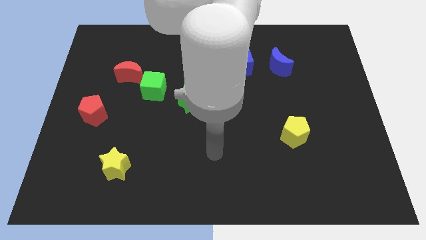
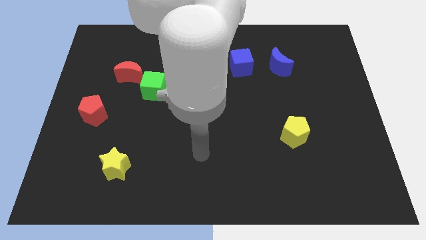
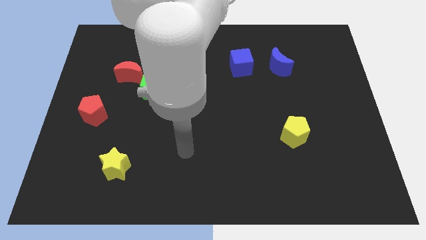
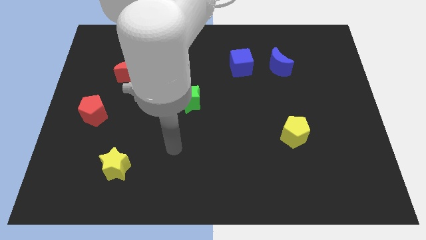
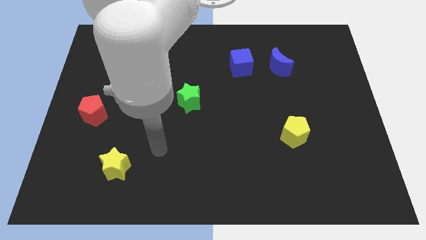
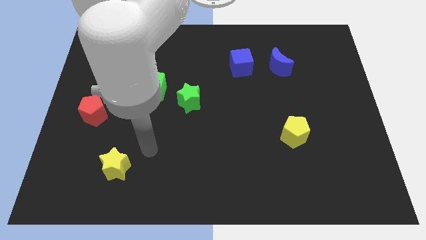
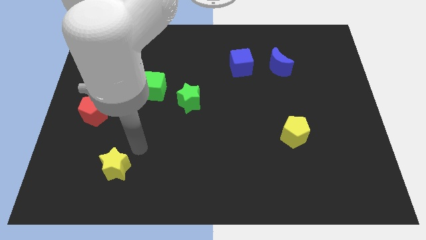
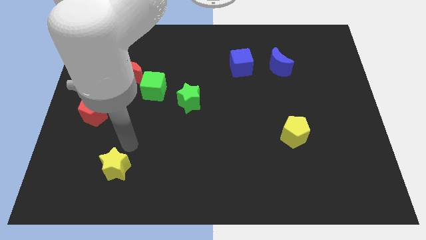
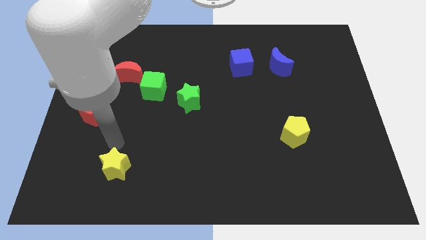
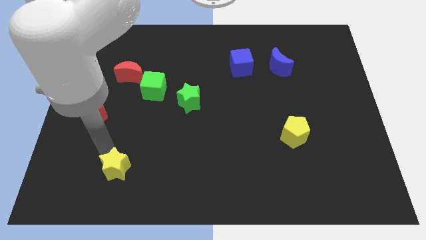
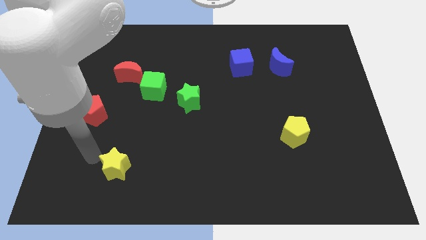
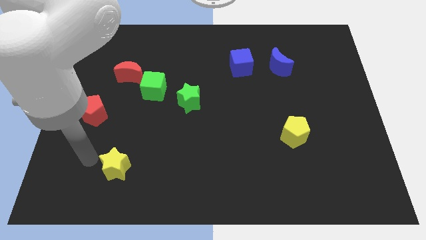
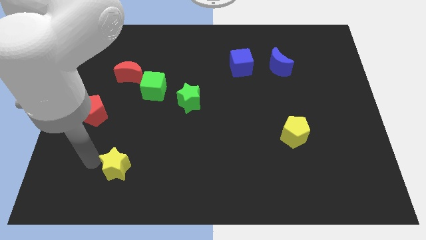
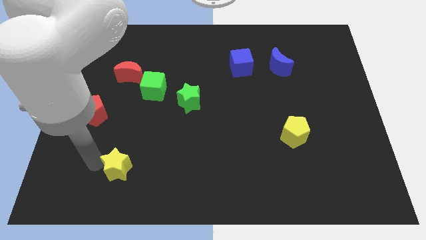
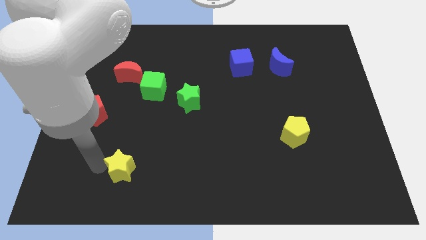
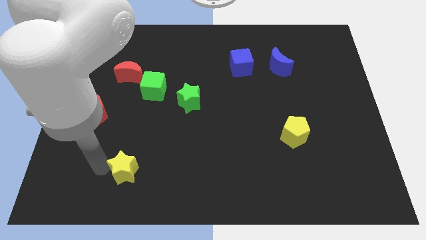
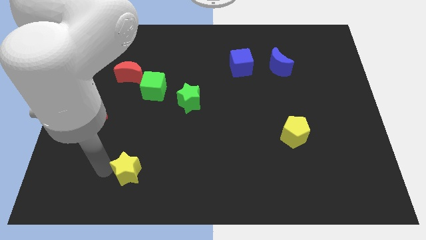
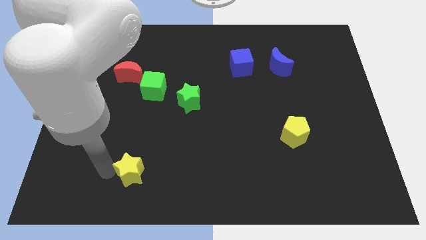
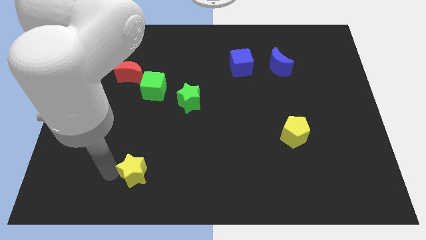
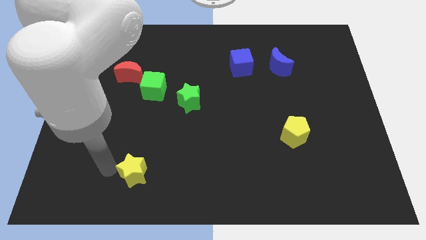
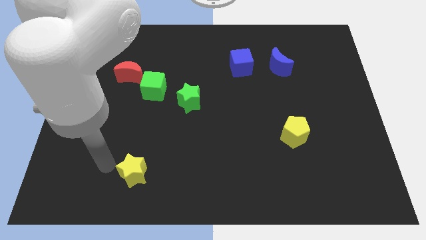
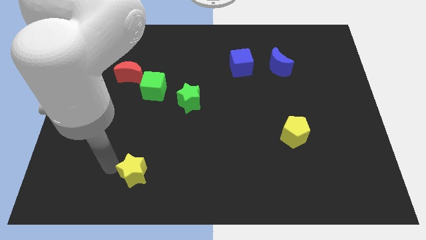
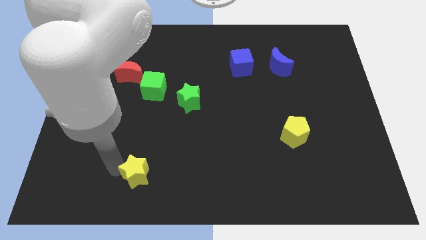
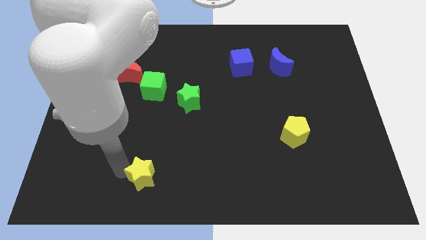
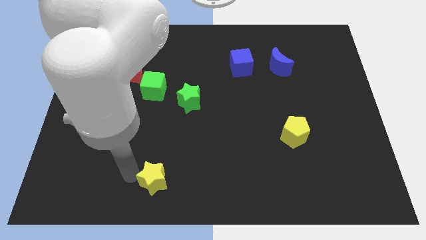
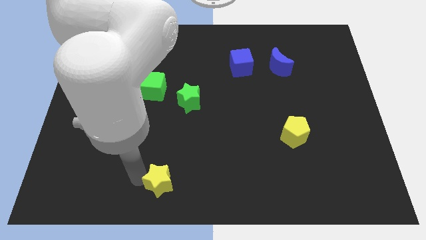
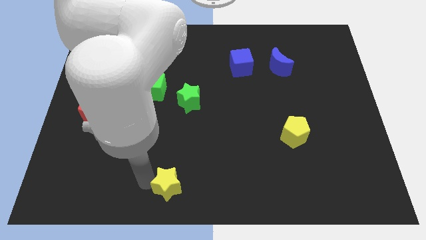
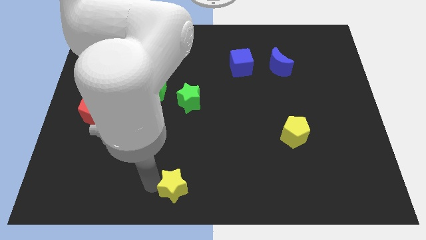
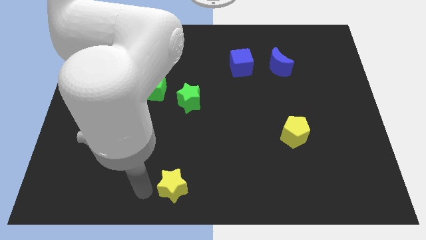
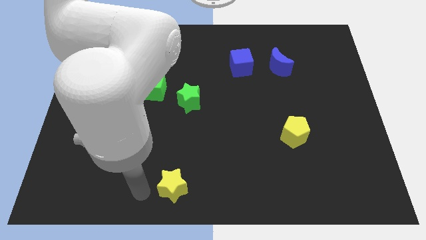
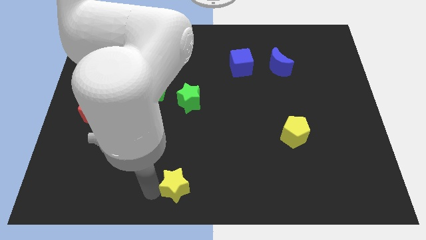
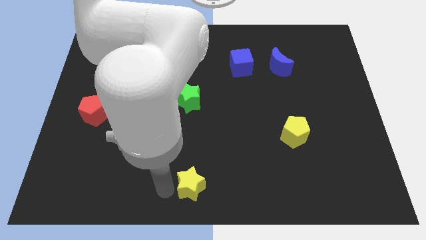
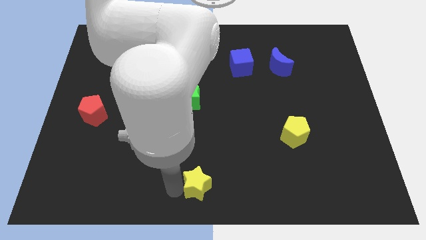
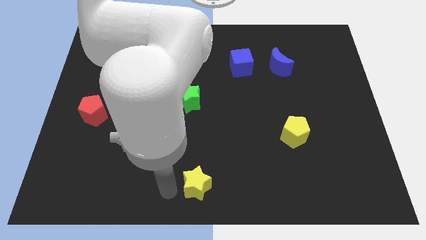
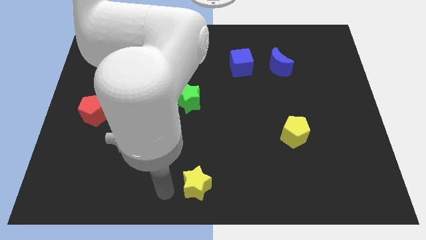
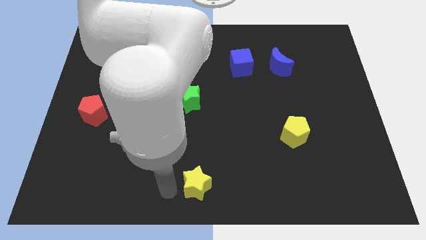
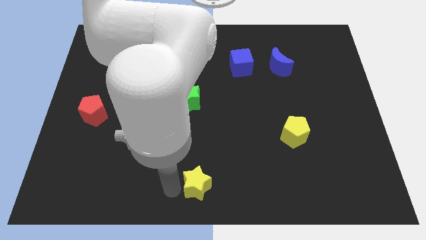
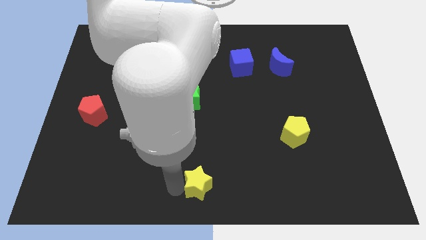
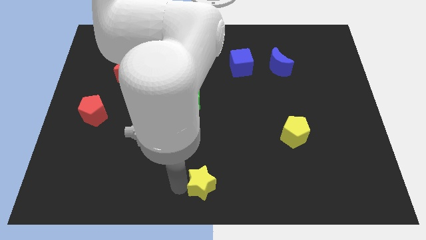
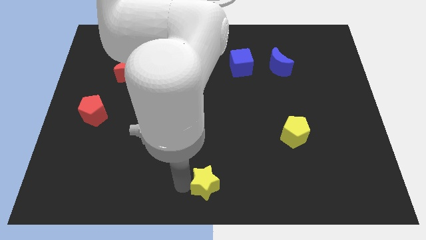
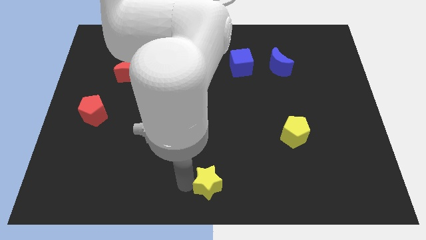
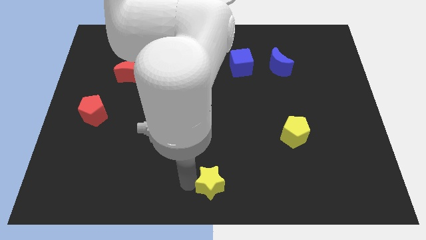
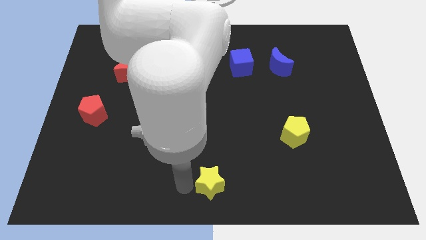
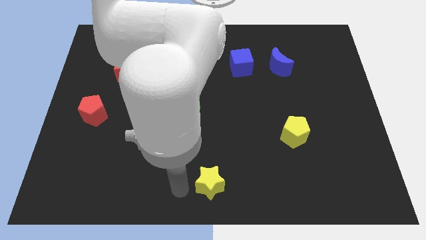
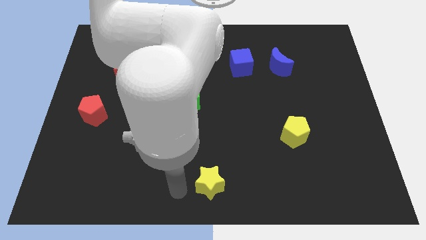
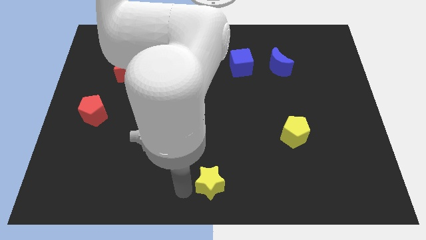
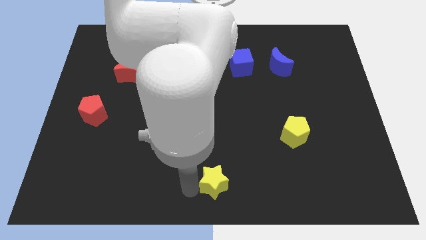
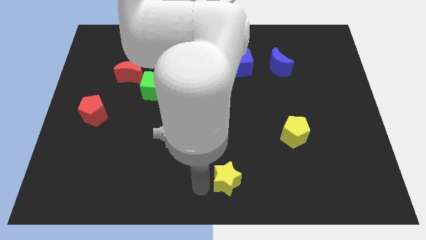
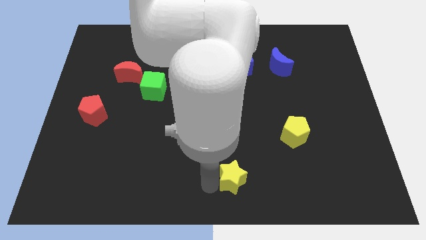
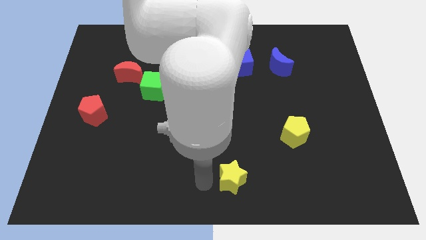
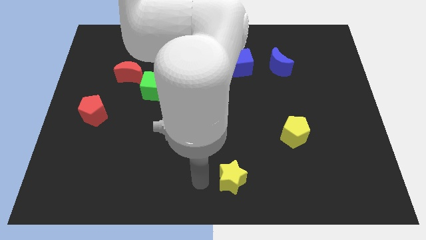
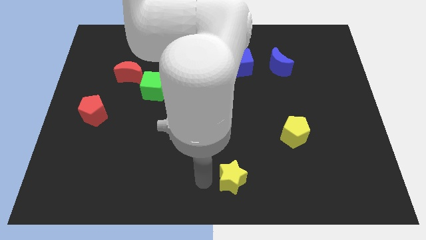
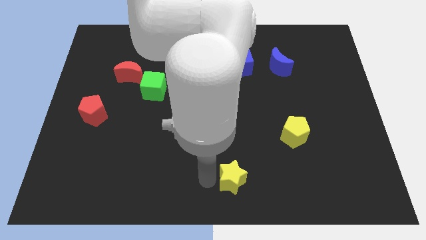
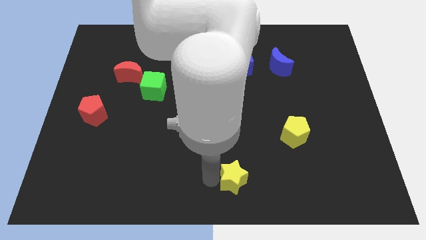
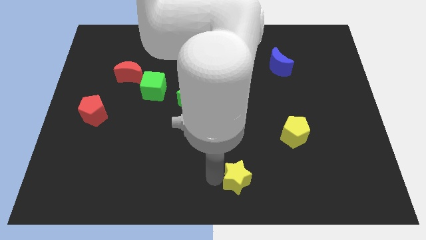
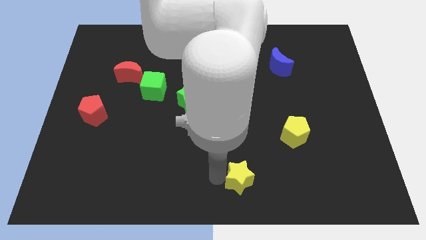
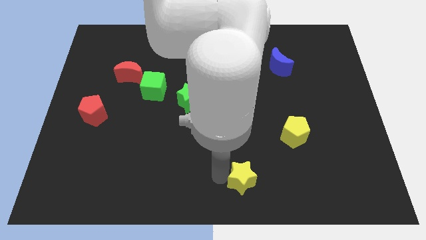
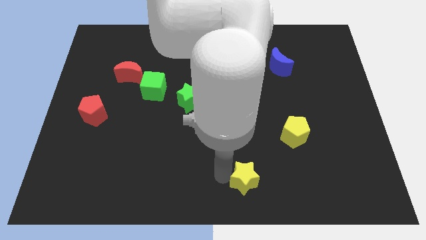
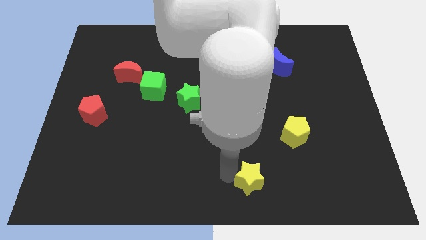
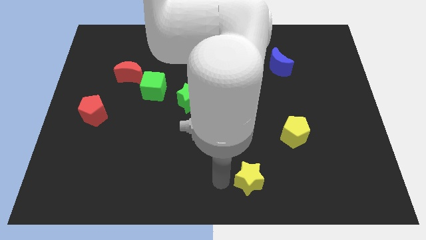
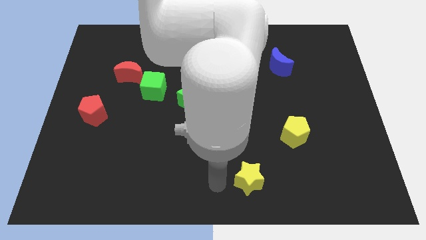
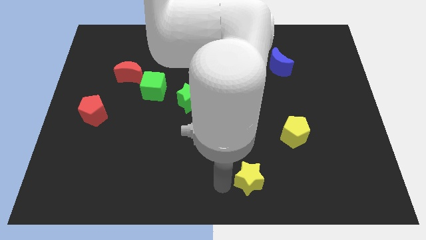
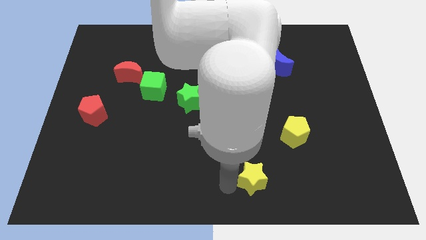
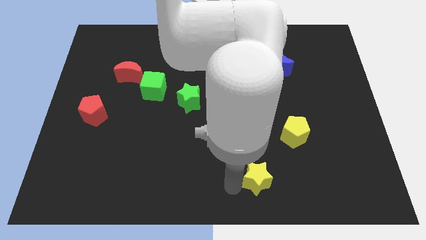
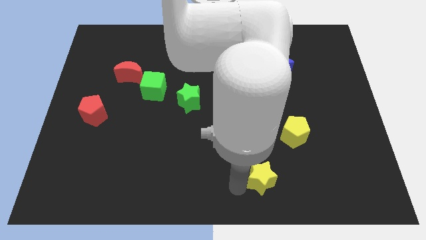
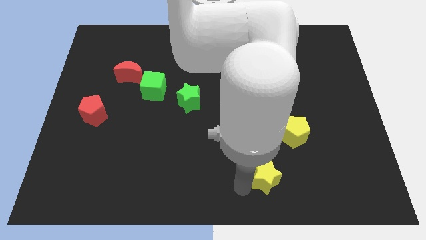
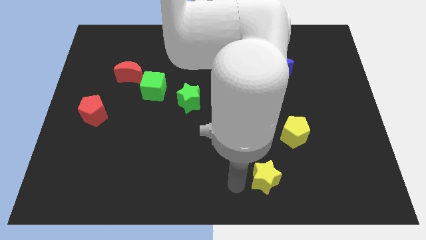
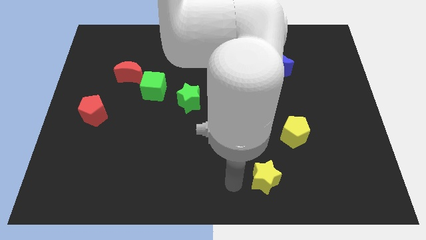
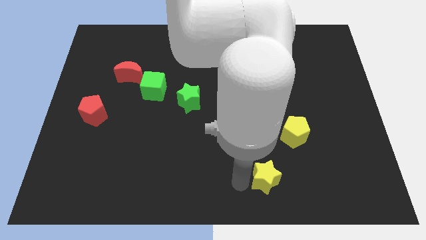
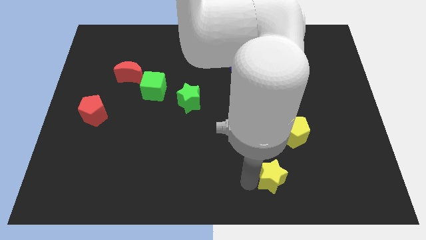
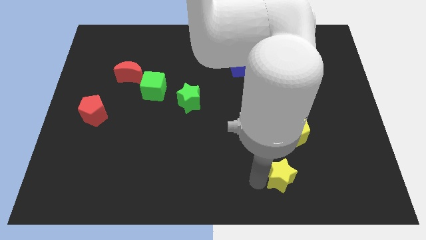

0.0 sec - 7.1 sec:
push the yellow star below the yellow pentagon
